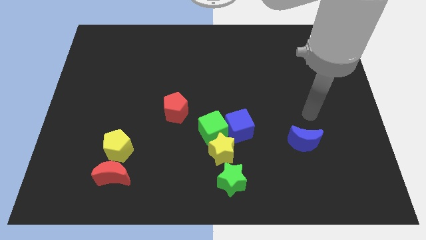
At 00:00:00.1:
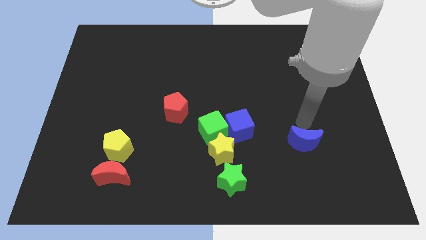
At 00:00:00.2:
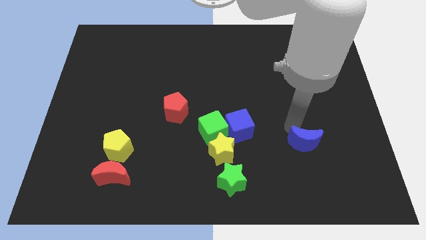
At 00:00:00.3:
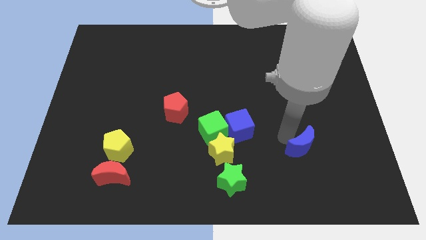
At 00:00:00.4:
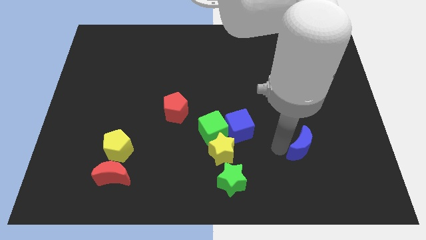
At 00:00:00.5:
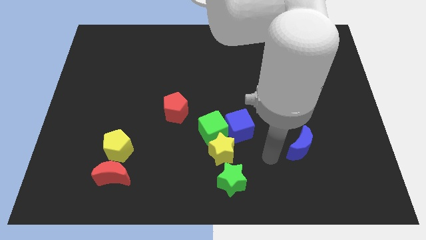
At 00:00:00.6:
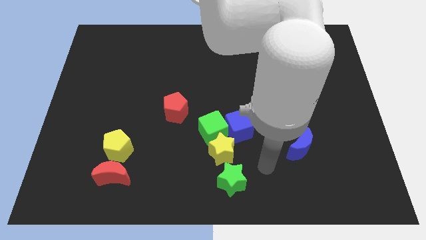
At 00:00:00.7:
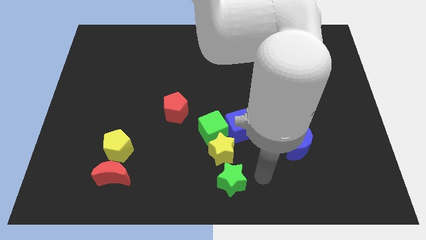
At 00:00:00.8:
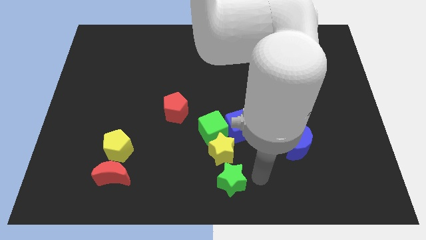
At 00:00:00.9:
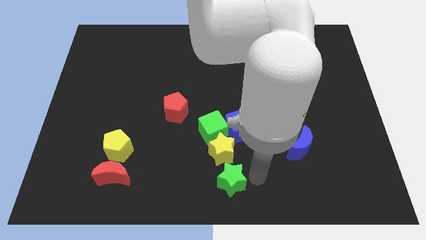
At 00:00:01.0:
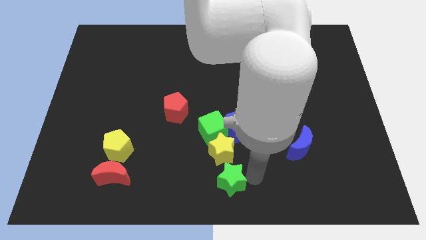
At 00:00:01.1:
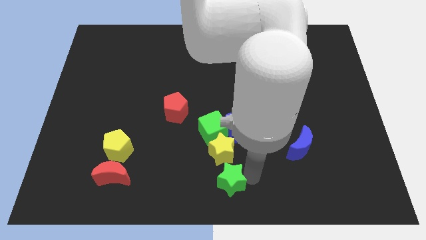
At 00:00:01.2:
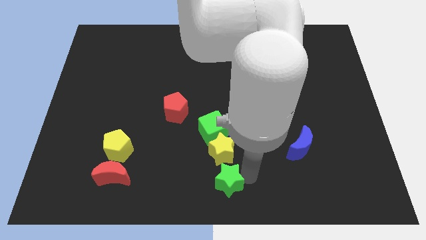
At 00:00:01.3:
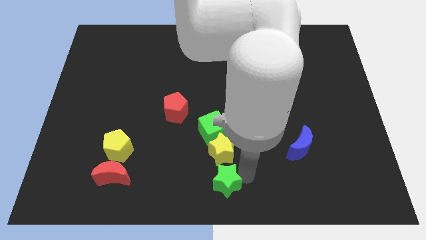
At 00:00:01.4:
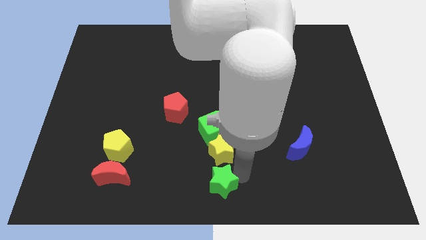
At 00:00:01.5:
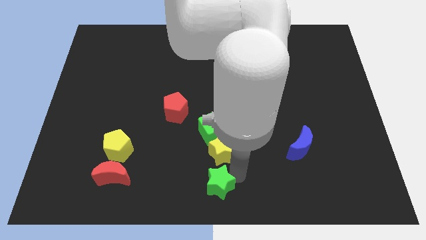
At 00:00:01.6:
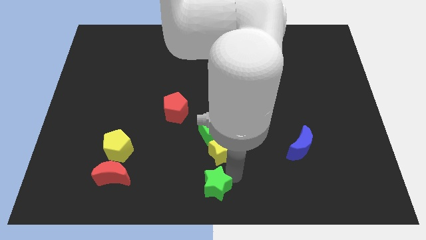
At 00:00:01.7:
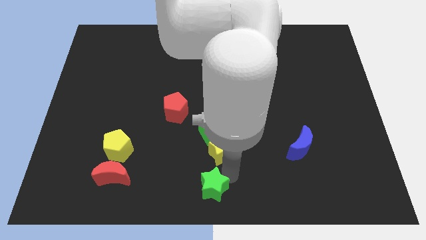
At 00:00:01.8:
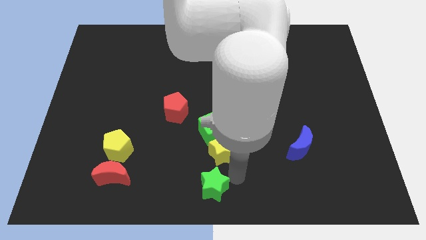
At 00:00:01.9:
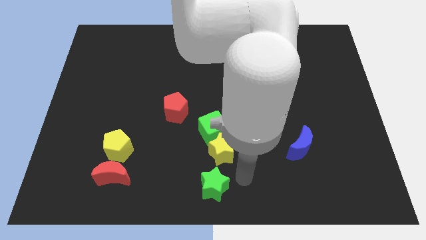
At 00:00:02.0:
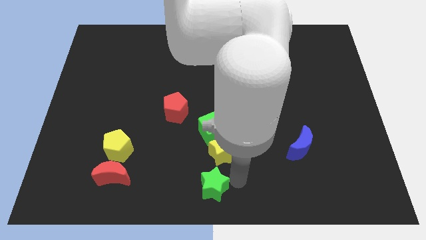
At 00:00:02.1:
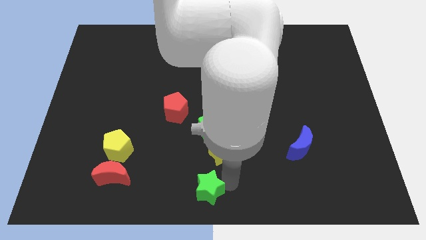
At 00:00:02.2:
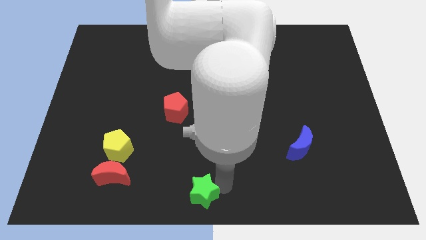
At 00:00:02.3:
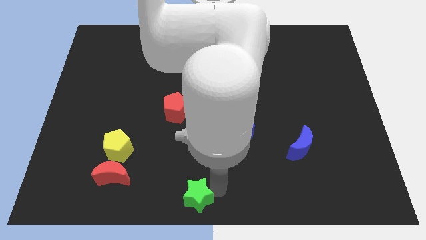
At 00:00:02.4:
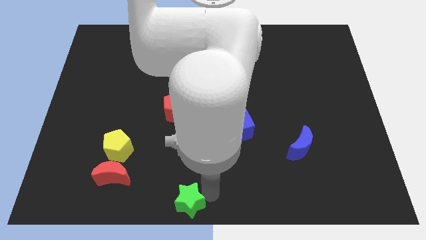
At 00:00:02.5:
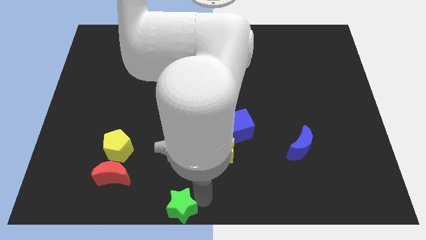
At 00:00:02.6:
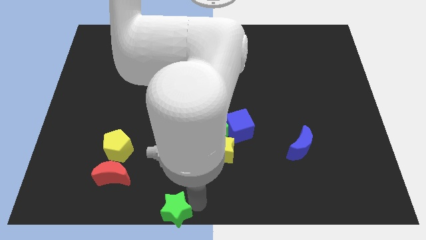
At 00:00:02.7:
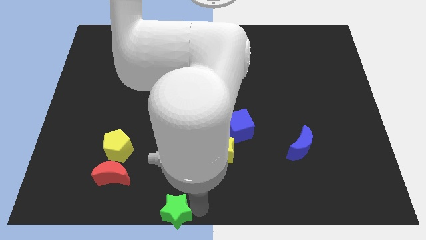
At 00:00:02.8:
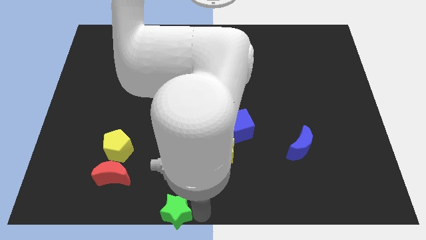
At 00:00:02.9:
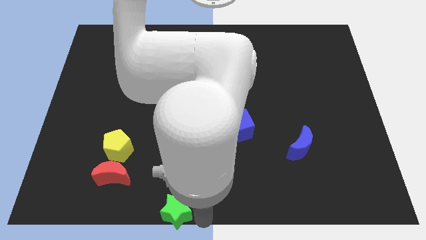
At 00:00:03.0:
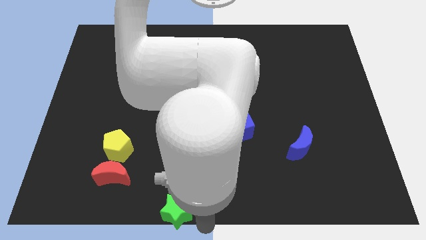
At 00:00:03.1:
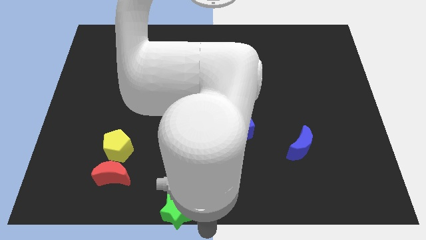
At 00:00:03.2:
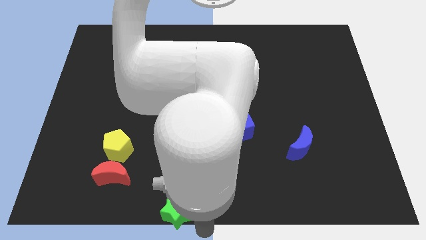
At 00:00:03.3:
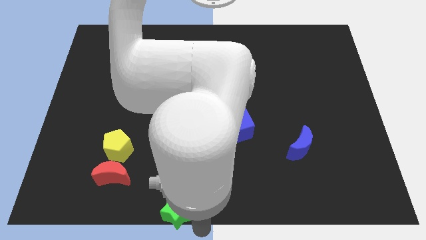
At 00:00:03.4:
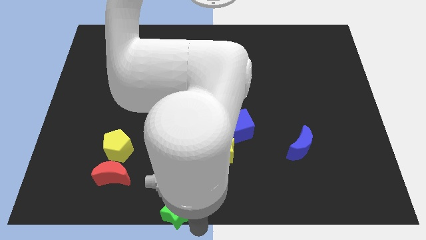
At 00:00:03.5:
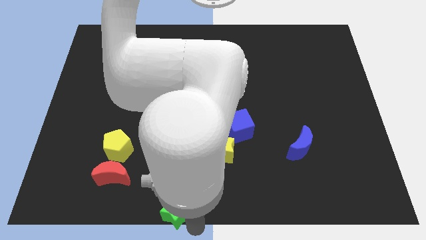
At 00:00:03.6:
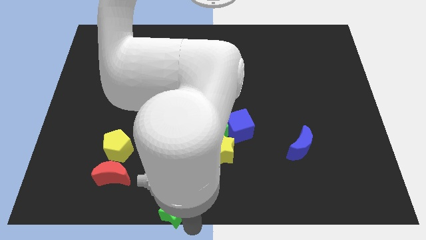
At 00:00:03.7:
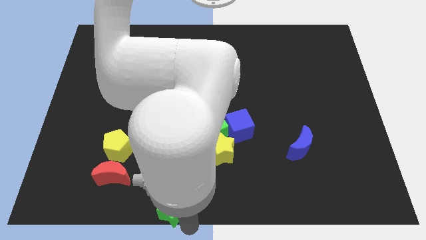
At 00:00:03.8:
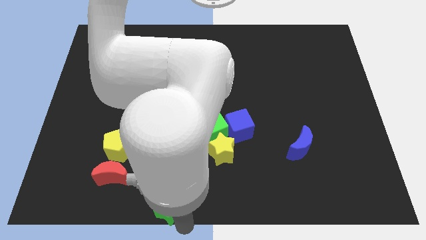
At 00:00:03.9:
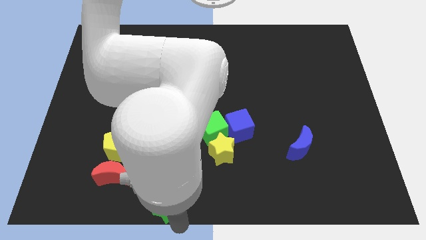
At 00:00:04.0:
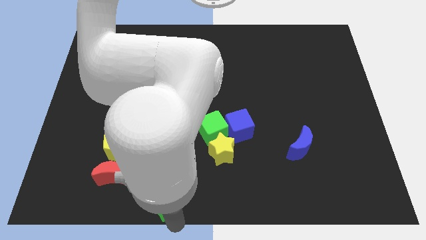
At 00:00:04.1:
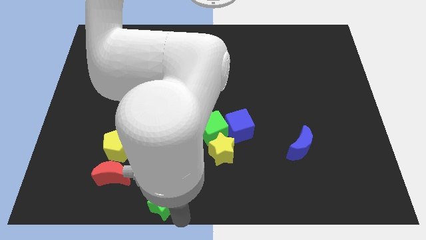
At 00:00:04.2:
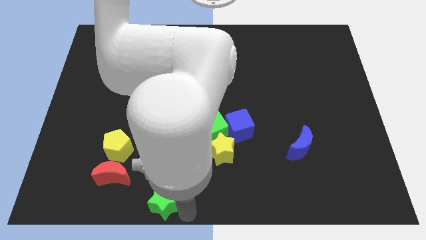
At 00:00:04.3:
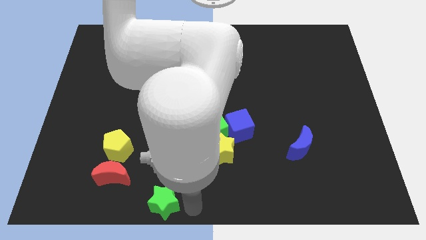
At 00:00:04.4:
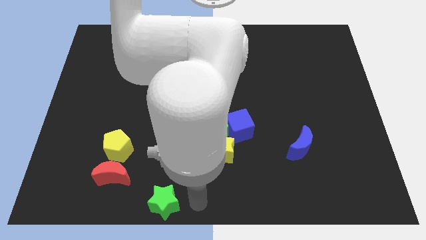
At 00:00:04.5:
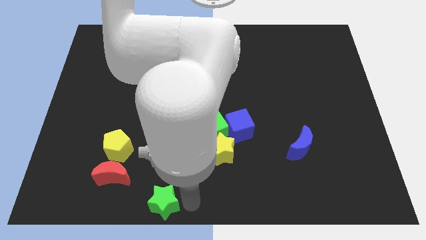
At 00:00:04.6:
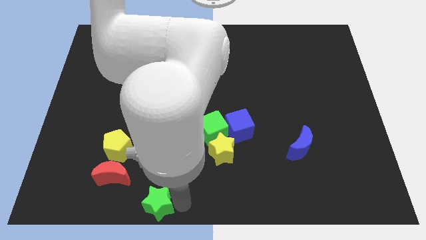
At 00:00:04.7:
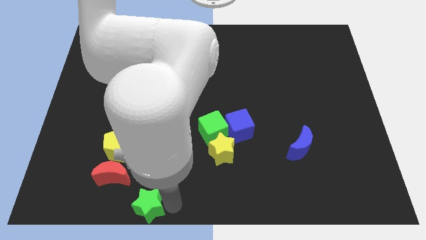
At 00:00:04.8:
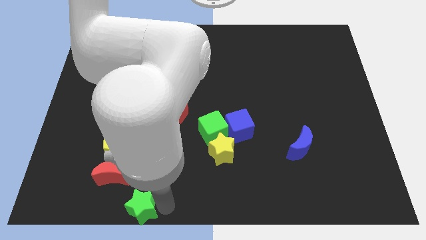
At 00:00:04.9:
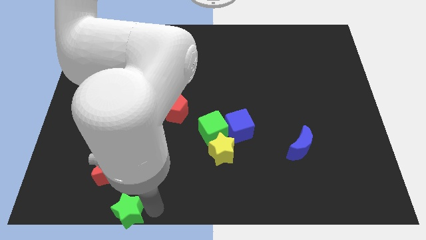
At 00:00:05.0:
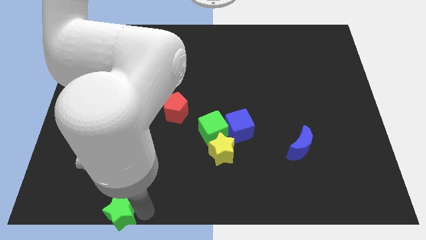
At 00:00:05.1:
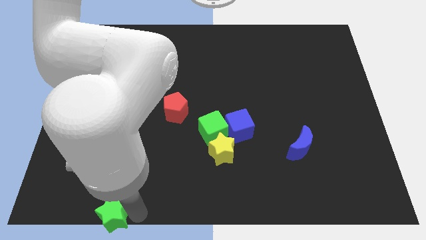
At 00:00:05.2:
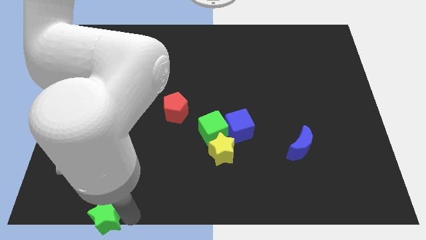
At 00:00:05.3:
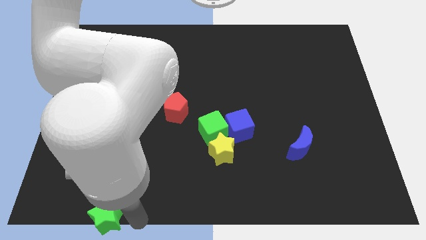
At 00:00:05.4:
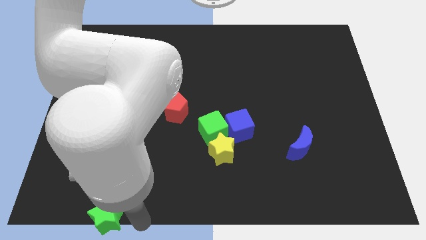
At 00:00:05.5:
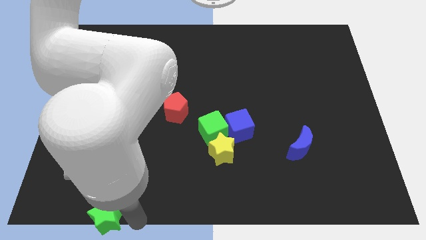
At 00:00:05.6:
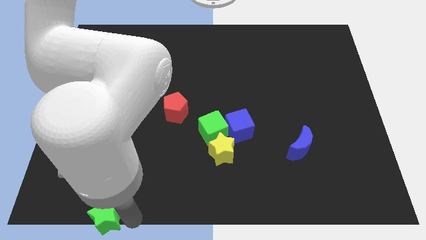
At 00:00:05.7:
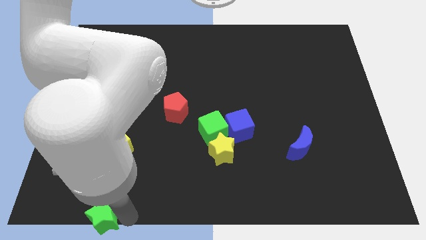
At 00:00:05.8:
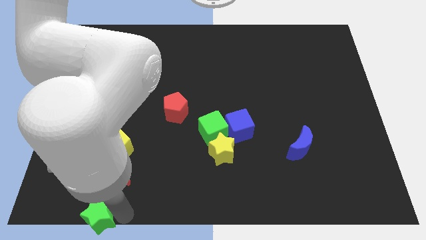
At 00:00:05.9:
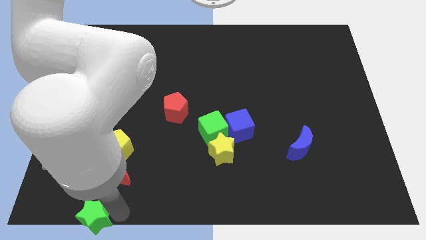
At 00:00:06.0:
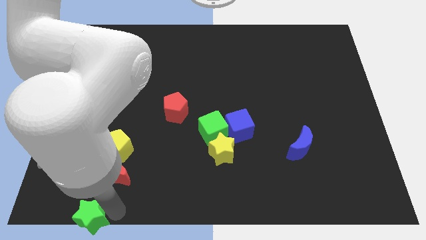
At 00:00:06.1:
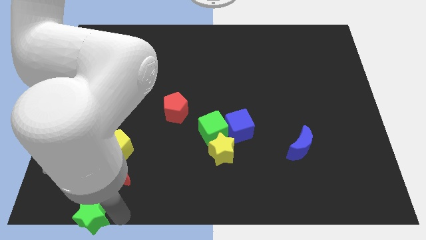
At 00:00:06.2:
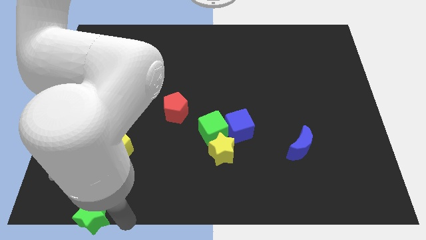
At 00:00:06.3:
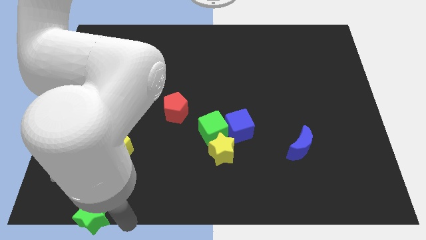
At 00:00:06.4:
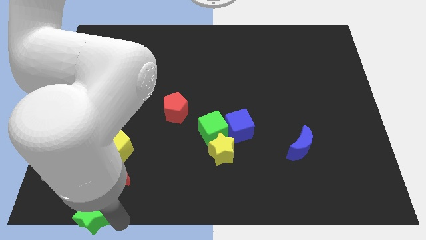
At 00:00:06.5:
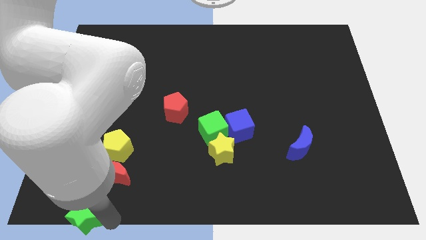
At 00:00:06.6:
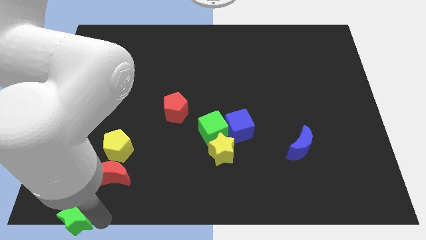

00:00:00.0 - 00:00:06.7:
push the green star to the bottom left
